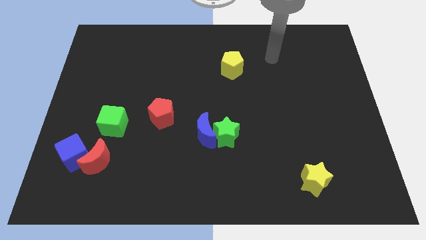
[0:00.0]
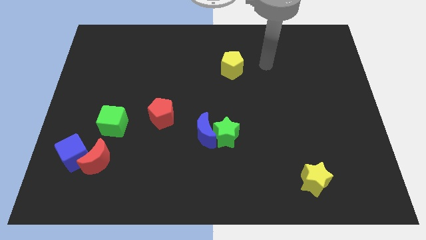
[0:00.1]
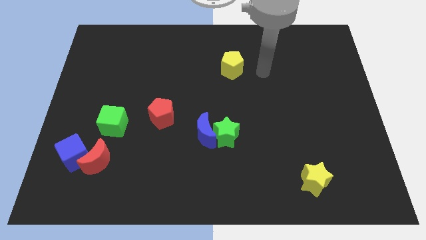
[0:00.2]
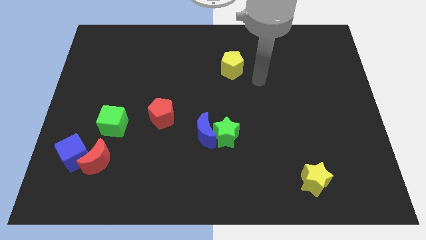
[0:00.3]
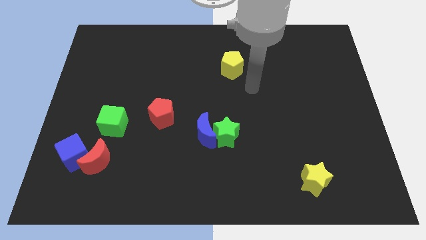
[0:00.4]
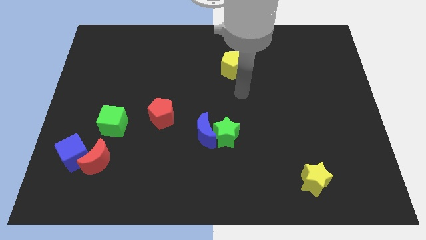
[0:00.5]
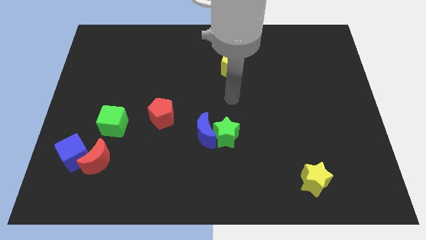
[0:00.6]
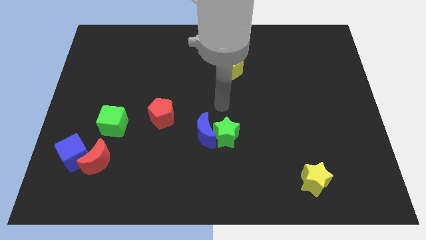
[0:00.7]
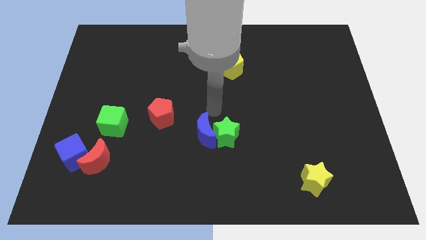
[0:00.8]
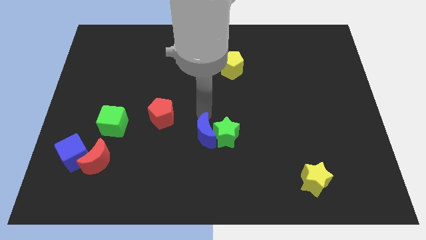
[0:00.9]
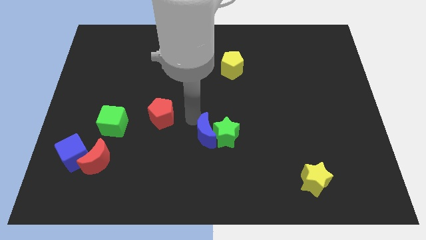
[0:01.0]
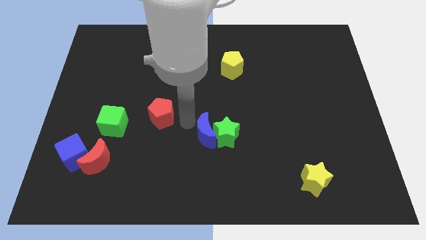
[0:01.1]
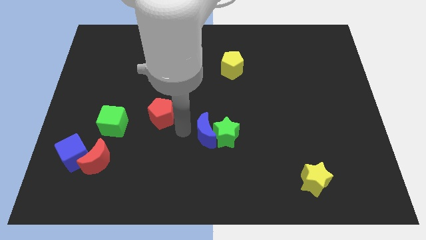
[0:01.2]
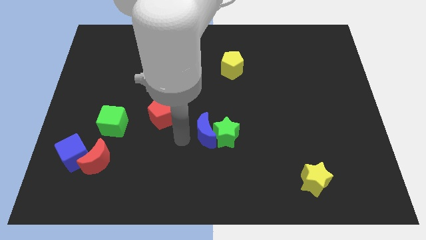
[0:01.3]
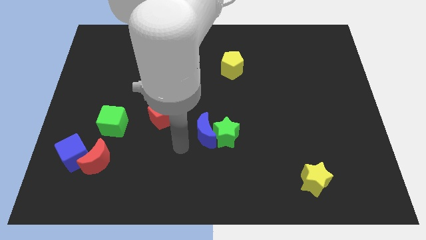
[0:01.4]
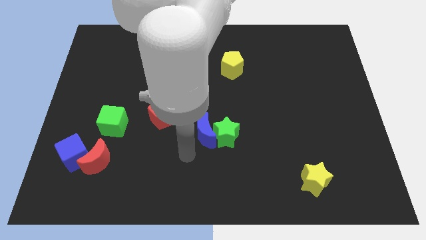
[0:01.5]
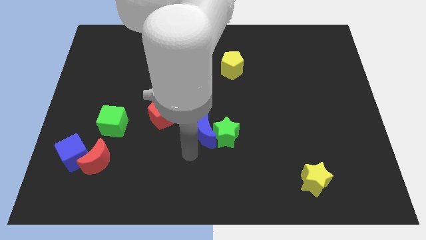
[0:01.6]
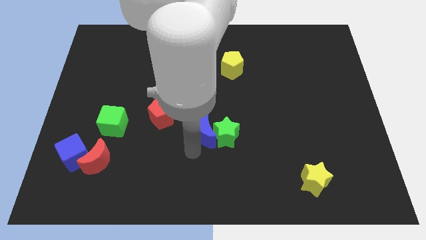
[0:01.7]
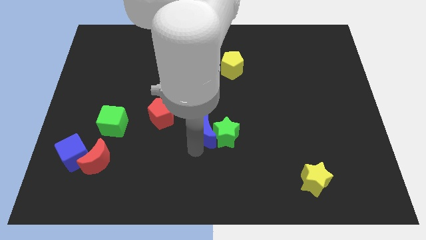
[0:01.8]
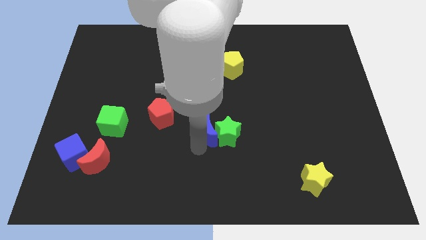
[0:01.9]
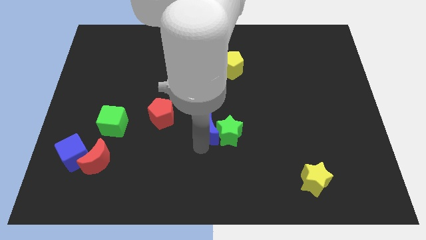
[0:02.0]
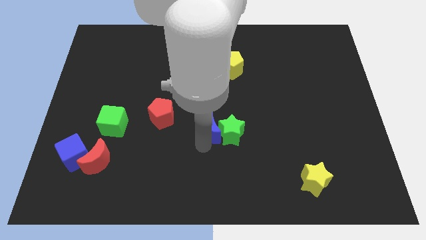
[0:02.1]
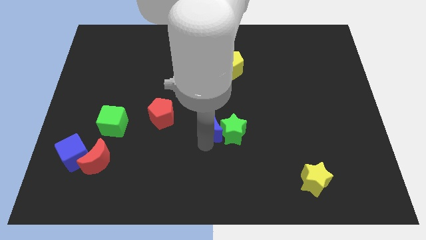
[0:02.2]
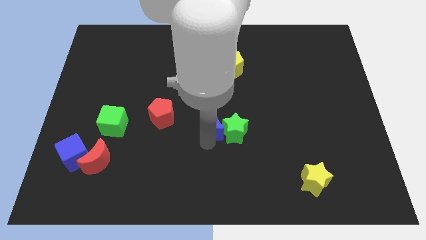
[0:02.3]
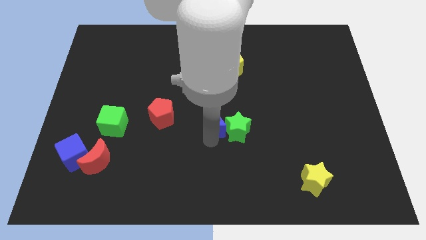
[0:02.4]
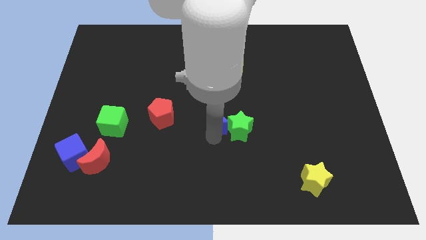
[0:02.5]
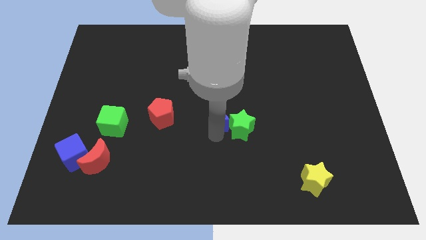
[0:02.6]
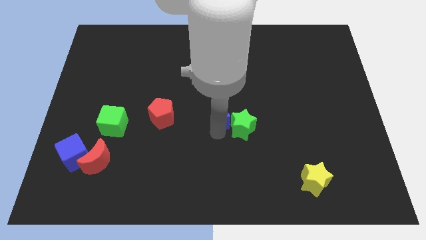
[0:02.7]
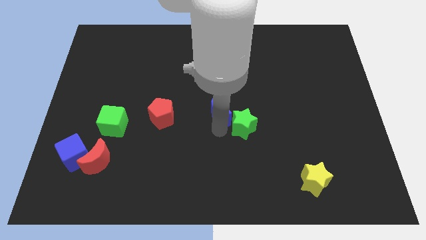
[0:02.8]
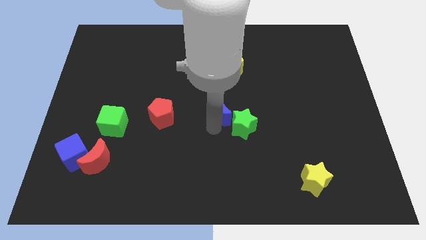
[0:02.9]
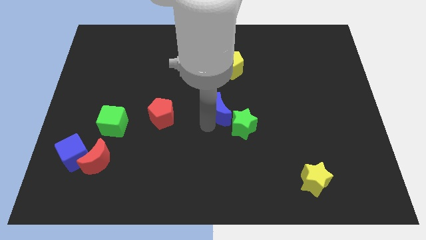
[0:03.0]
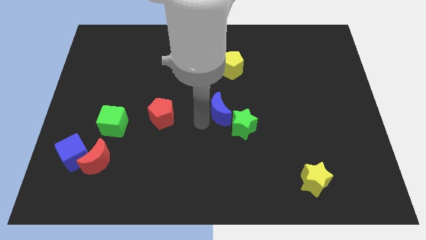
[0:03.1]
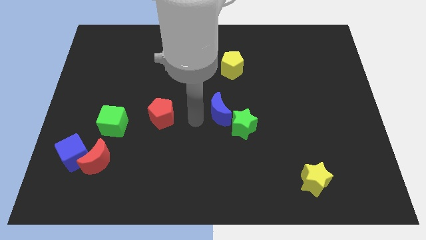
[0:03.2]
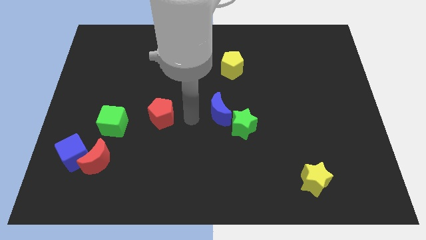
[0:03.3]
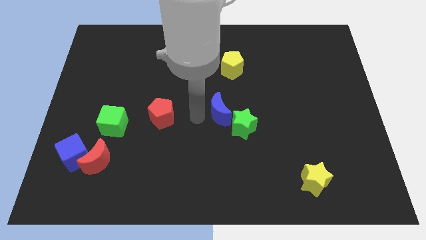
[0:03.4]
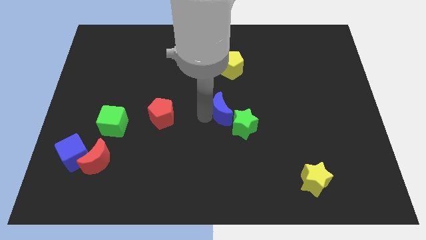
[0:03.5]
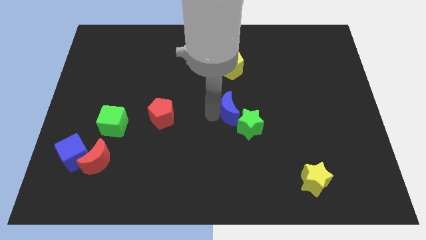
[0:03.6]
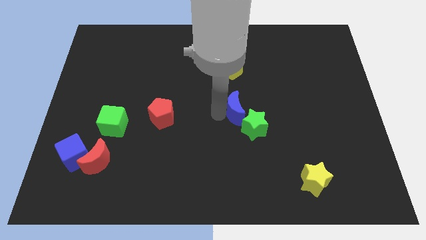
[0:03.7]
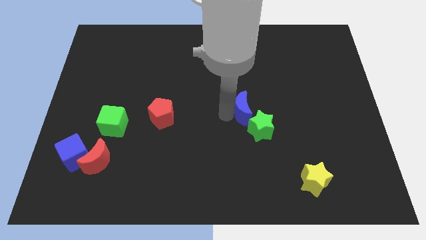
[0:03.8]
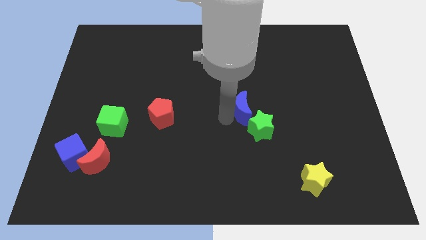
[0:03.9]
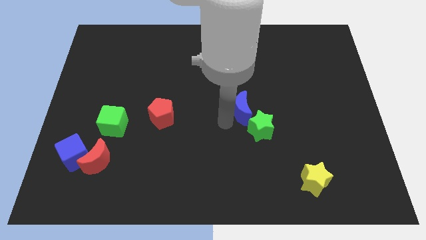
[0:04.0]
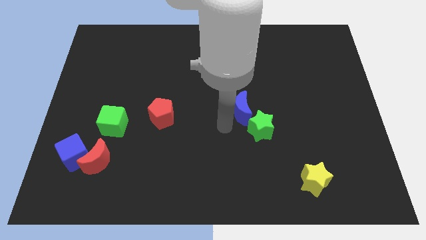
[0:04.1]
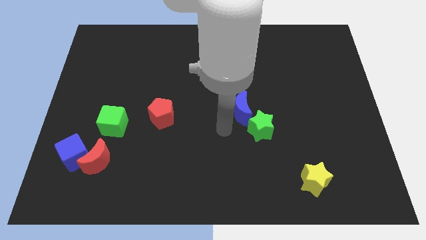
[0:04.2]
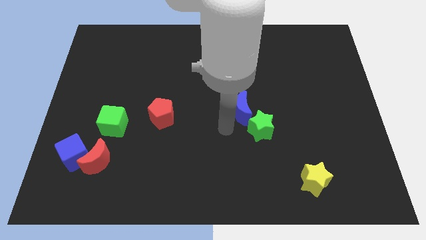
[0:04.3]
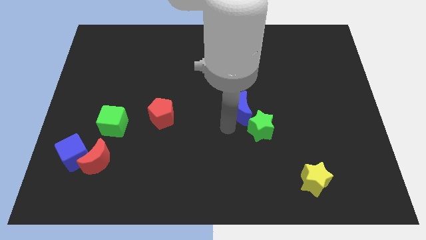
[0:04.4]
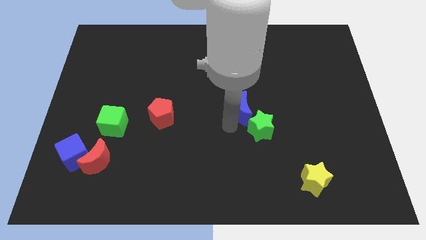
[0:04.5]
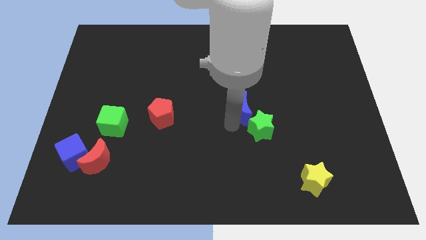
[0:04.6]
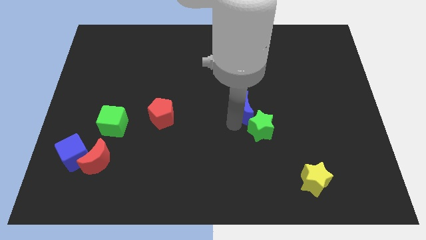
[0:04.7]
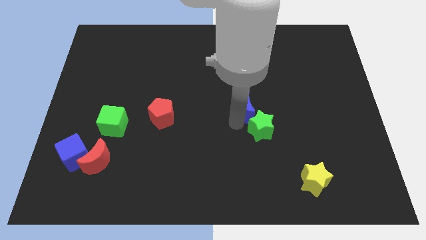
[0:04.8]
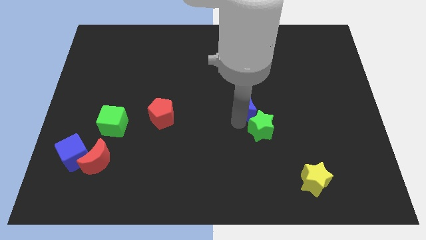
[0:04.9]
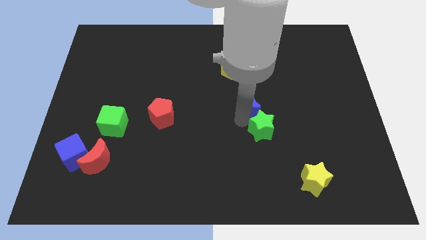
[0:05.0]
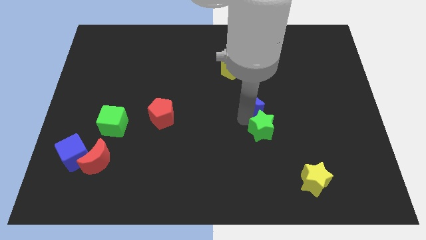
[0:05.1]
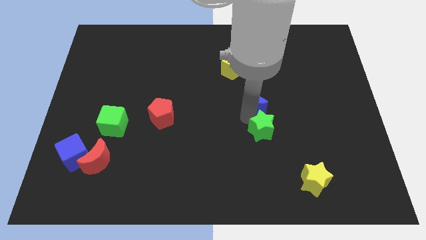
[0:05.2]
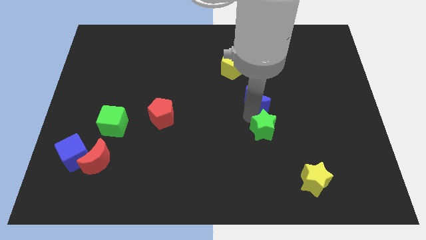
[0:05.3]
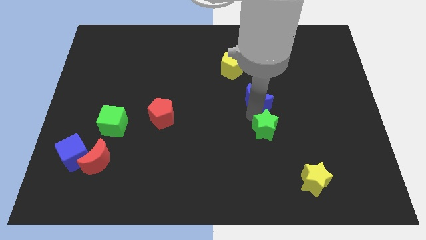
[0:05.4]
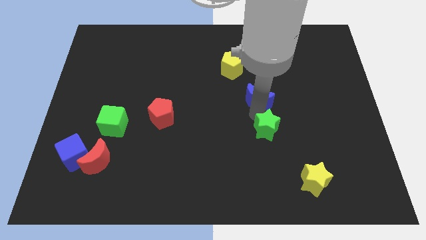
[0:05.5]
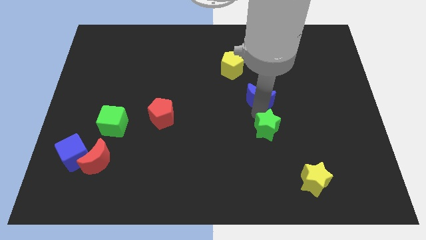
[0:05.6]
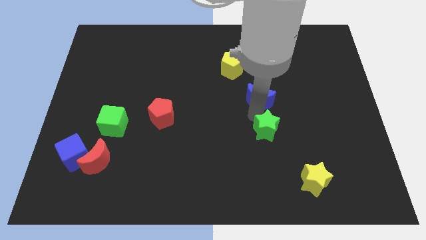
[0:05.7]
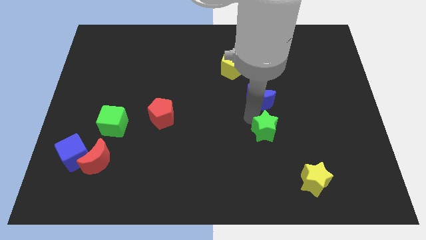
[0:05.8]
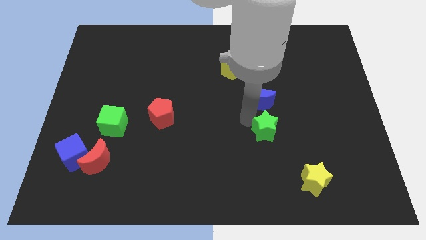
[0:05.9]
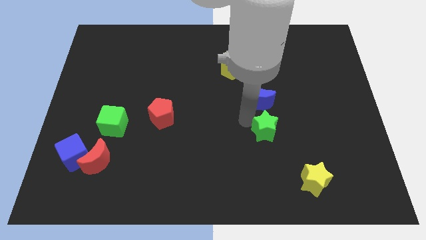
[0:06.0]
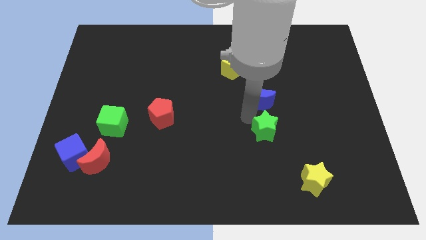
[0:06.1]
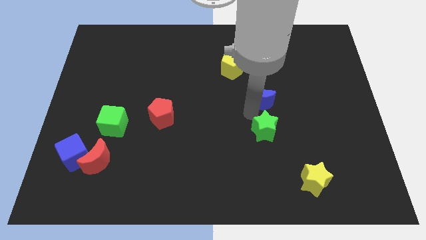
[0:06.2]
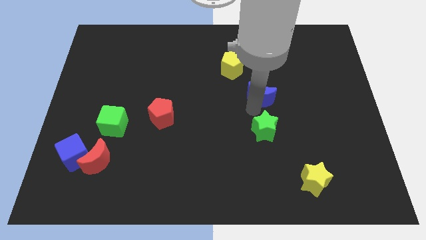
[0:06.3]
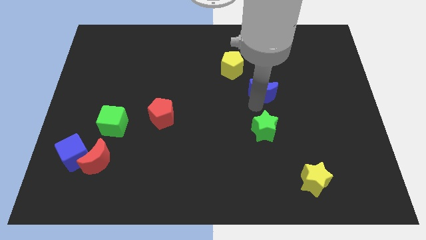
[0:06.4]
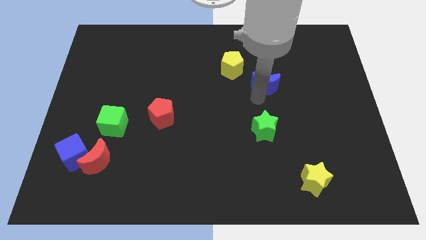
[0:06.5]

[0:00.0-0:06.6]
move the blue moon upwards and right diagonally

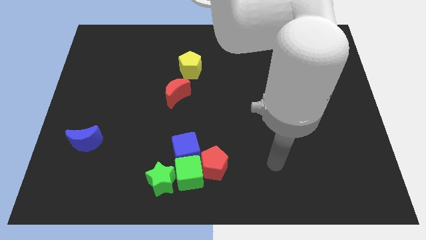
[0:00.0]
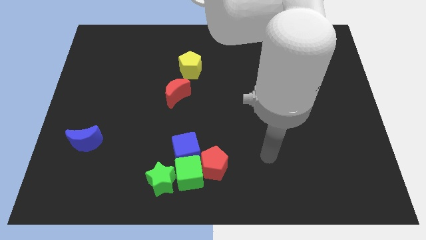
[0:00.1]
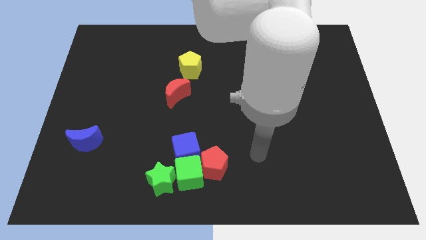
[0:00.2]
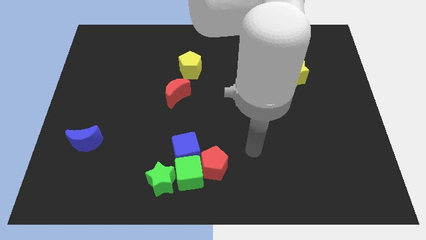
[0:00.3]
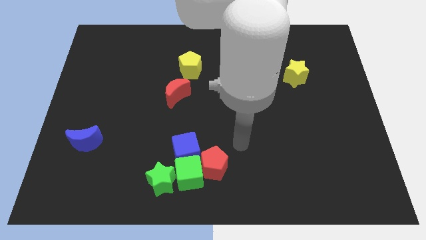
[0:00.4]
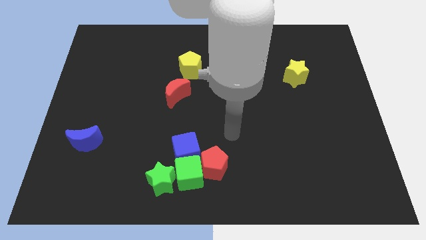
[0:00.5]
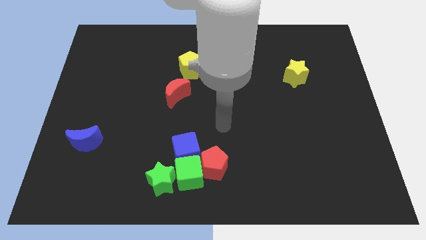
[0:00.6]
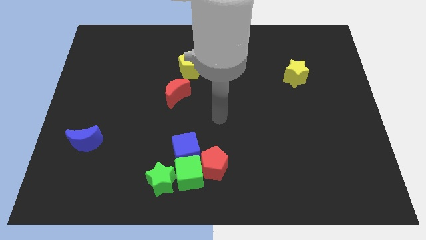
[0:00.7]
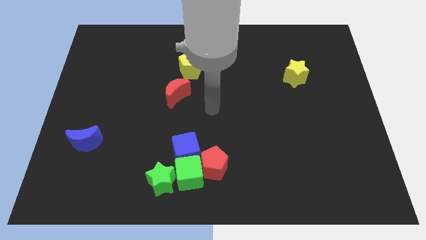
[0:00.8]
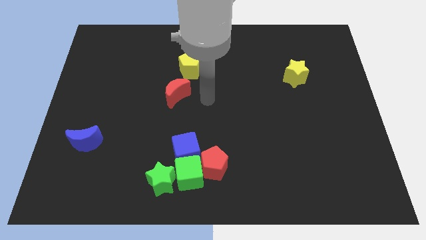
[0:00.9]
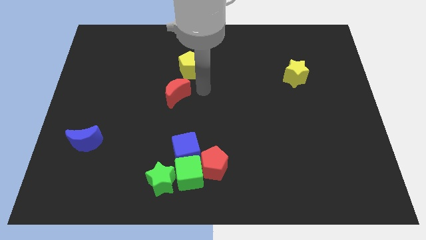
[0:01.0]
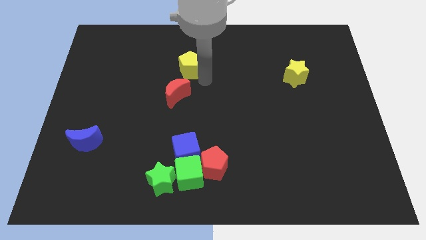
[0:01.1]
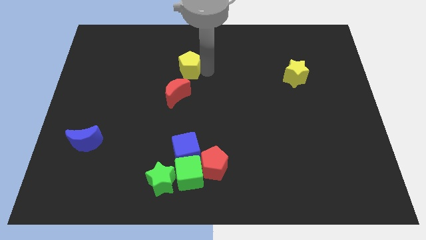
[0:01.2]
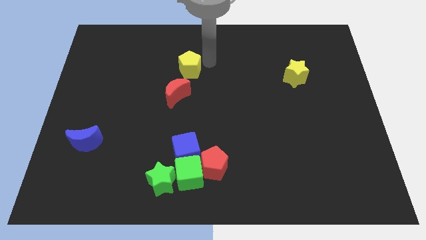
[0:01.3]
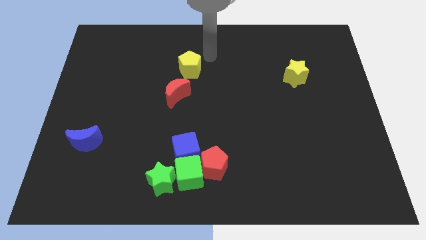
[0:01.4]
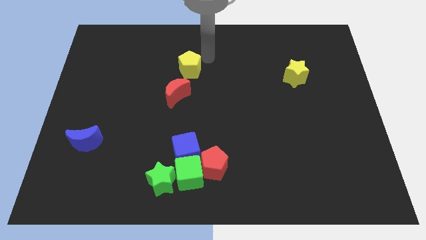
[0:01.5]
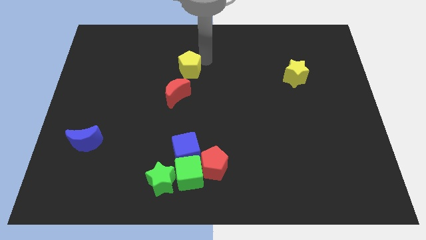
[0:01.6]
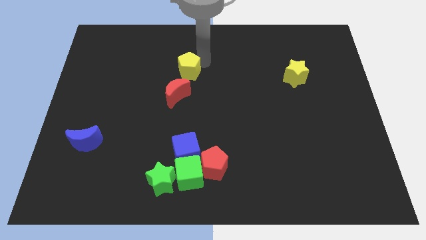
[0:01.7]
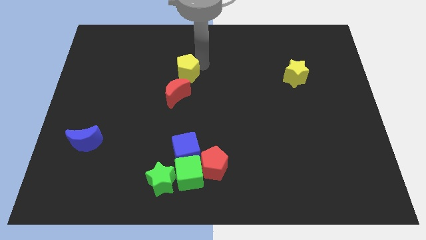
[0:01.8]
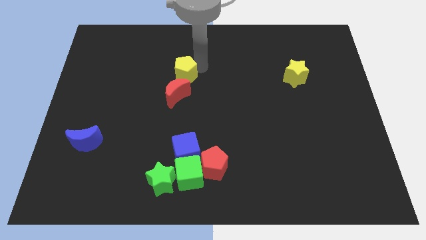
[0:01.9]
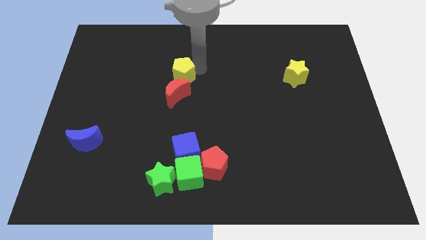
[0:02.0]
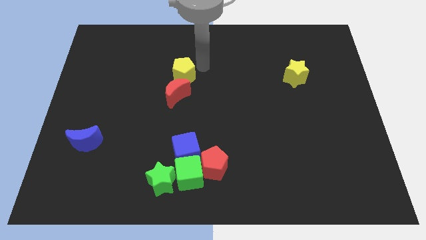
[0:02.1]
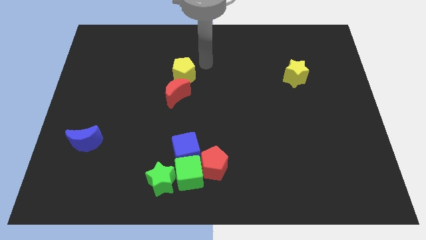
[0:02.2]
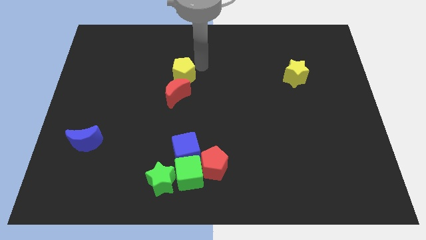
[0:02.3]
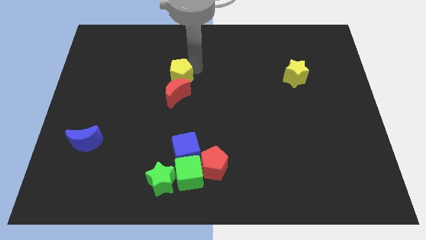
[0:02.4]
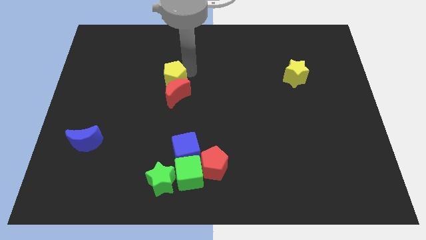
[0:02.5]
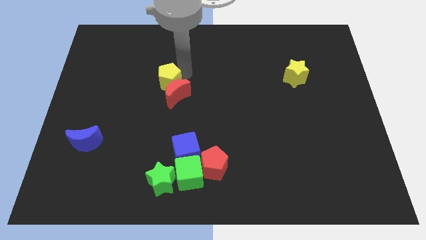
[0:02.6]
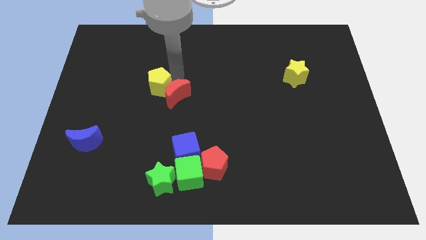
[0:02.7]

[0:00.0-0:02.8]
slide the yellow pentagon diagonally downwards and to the left slightly
